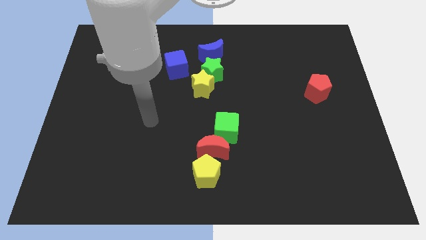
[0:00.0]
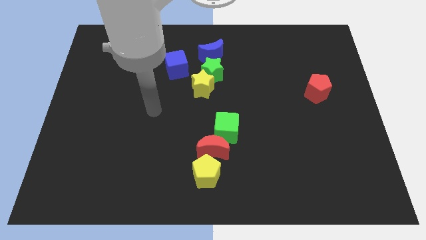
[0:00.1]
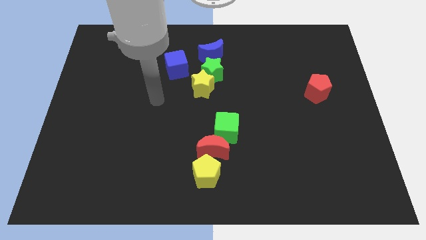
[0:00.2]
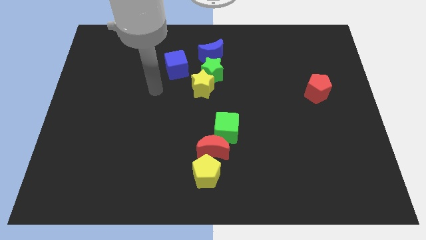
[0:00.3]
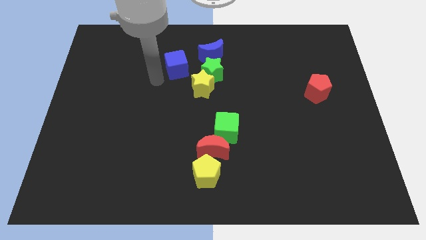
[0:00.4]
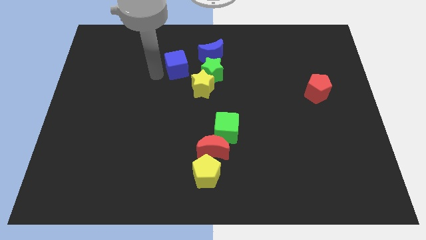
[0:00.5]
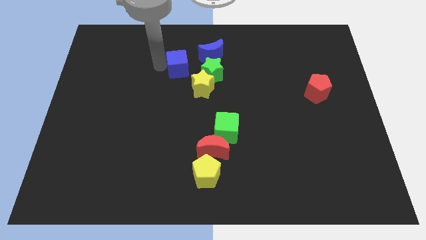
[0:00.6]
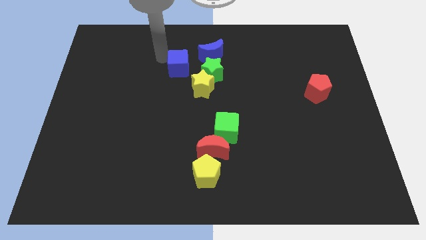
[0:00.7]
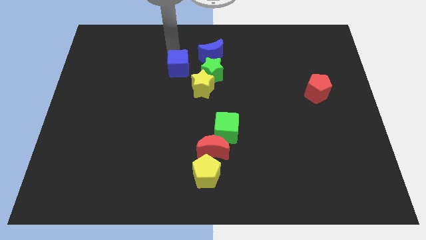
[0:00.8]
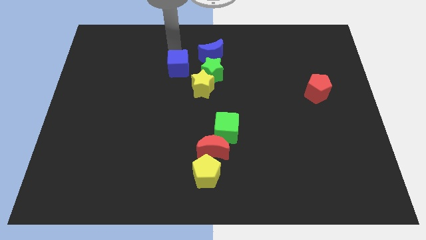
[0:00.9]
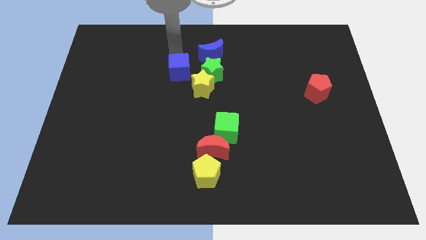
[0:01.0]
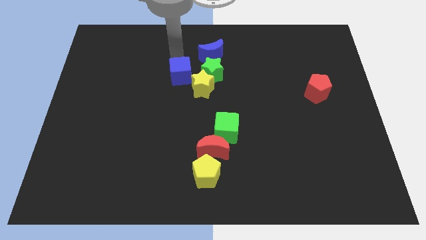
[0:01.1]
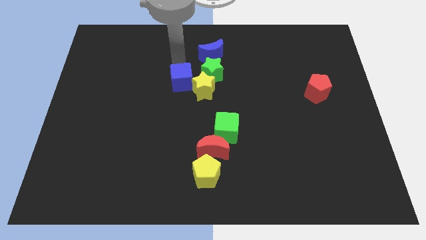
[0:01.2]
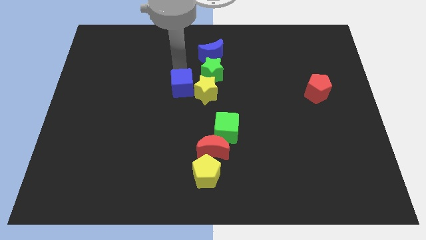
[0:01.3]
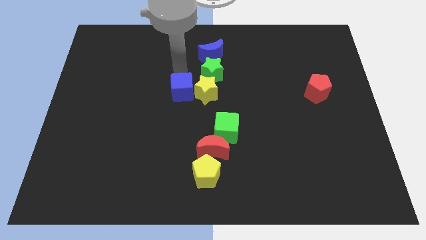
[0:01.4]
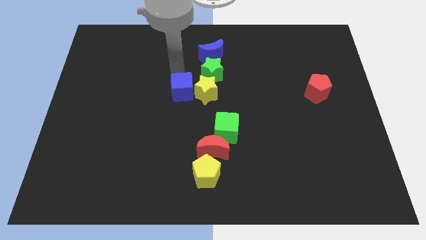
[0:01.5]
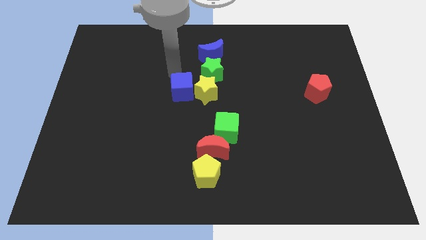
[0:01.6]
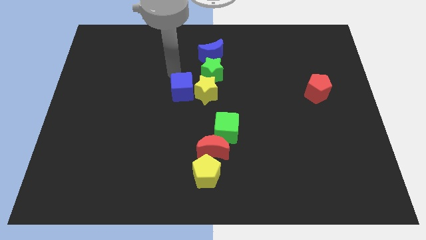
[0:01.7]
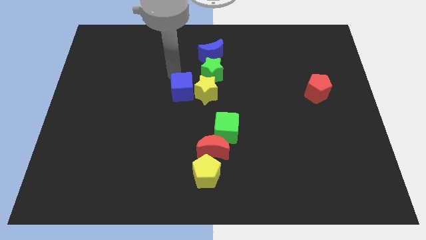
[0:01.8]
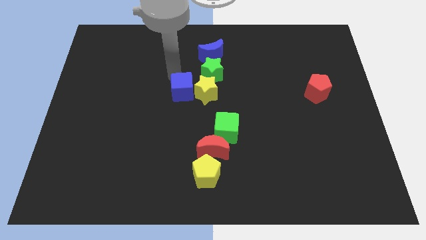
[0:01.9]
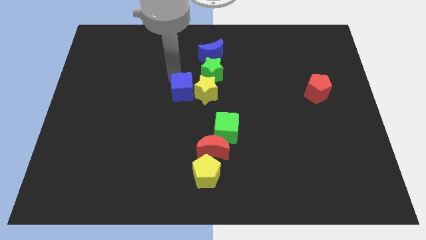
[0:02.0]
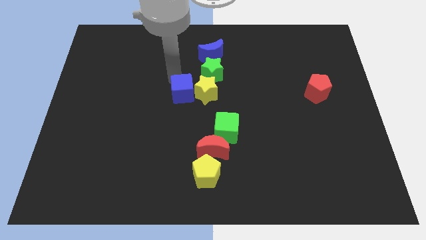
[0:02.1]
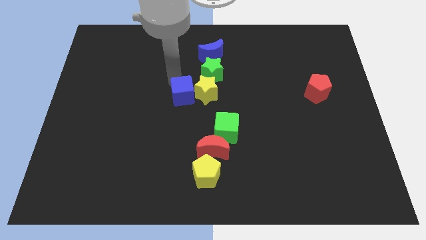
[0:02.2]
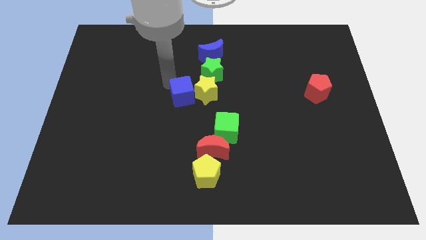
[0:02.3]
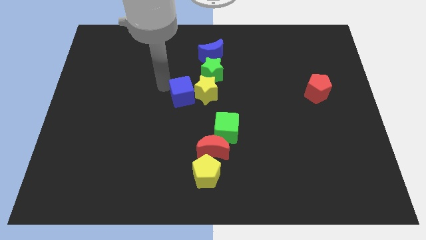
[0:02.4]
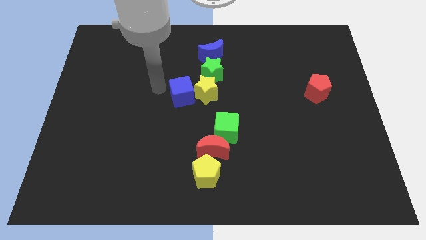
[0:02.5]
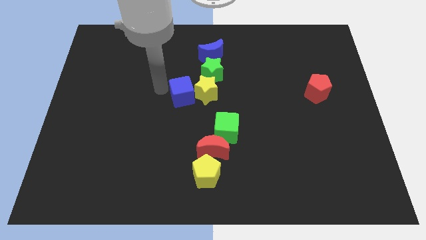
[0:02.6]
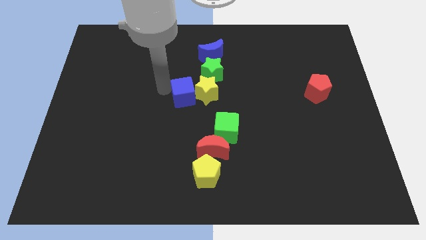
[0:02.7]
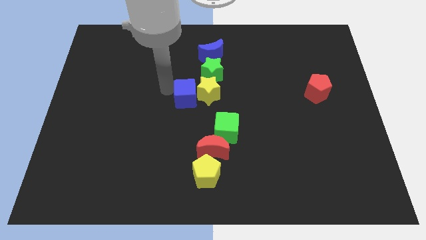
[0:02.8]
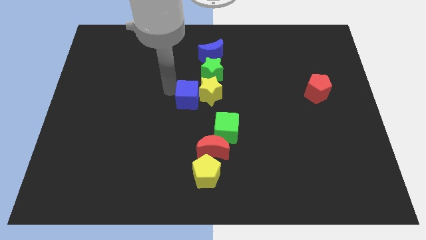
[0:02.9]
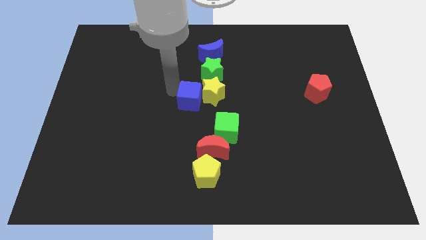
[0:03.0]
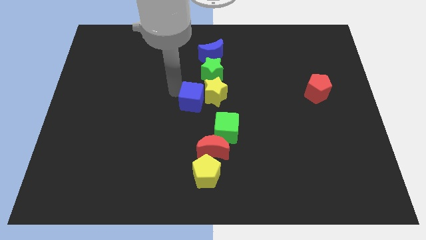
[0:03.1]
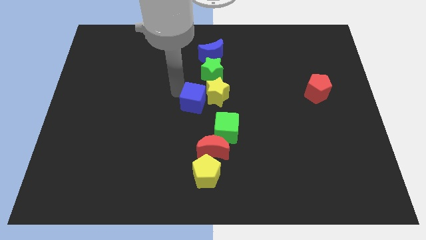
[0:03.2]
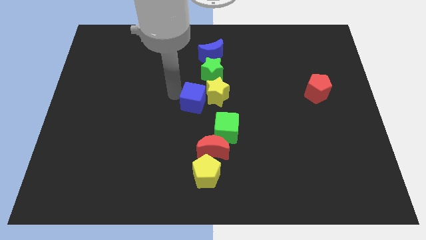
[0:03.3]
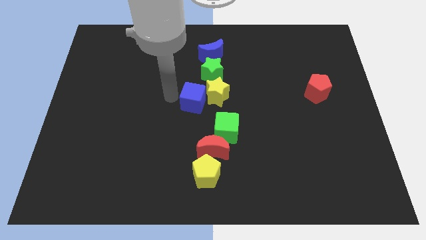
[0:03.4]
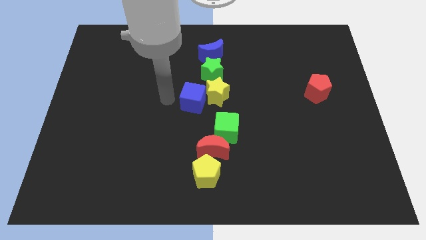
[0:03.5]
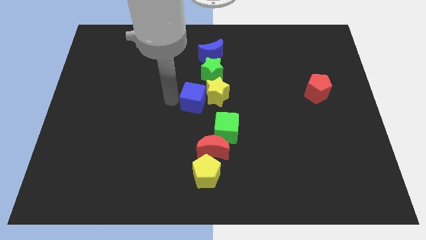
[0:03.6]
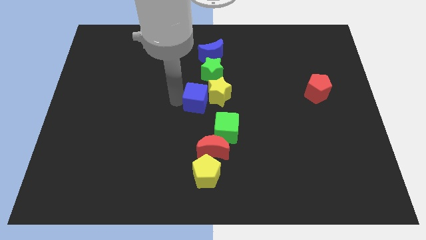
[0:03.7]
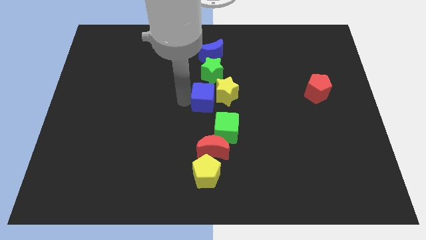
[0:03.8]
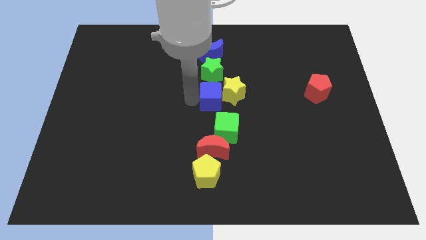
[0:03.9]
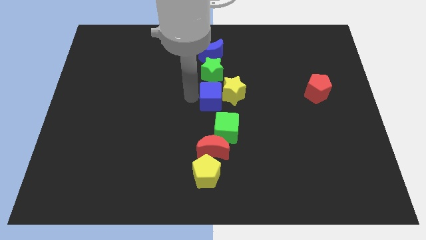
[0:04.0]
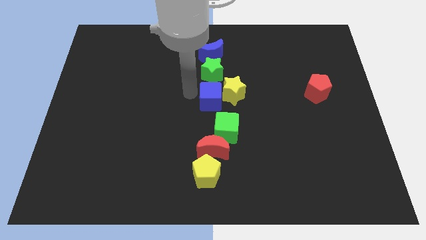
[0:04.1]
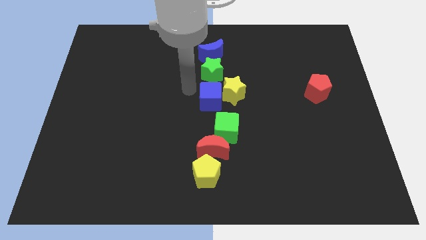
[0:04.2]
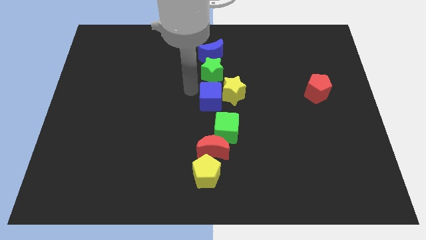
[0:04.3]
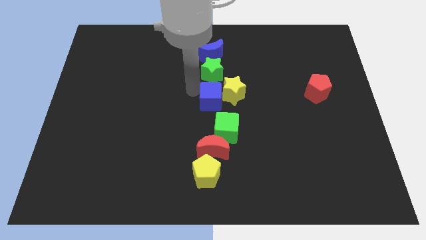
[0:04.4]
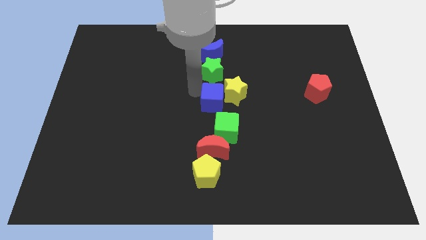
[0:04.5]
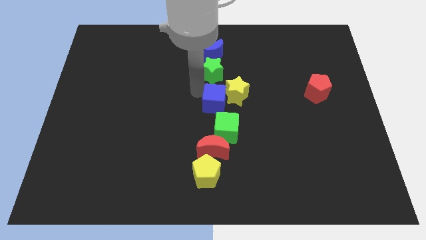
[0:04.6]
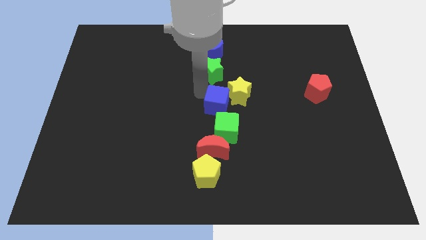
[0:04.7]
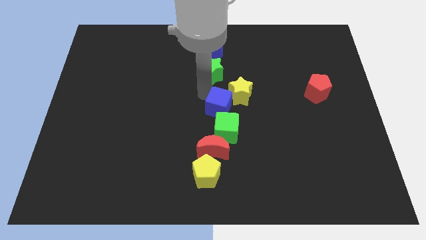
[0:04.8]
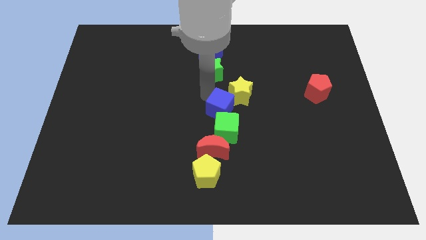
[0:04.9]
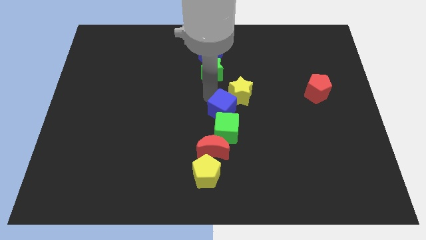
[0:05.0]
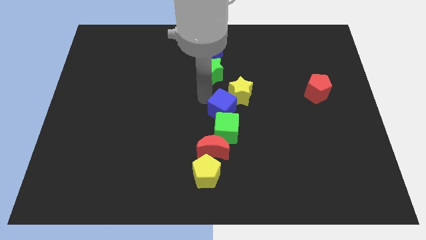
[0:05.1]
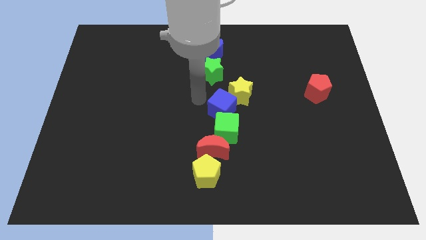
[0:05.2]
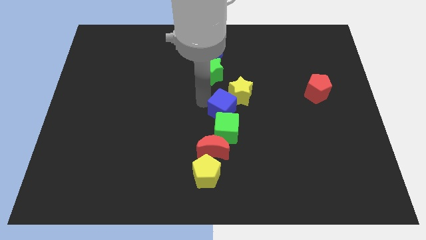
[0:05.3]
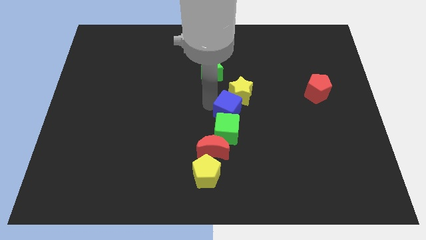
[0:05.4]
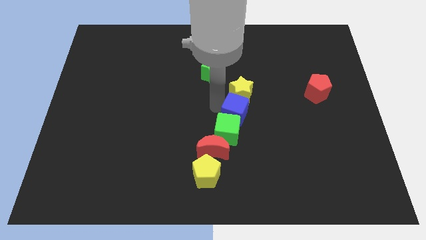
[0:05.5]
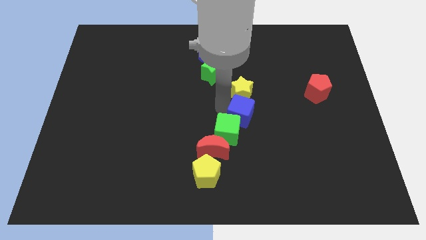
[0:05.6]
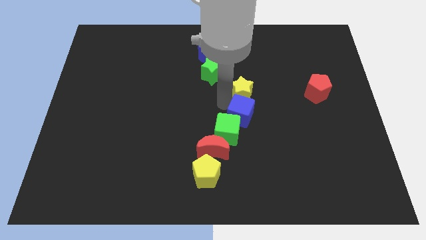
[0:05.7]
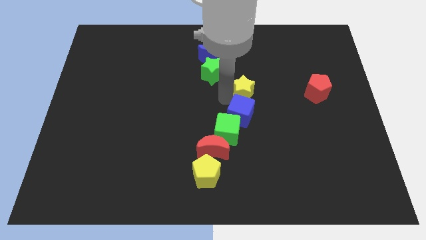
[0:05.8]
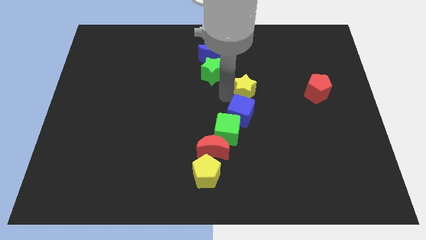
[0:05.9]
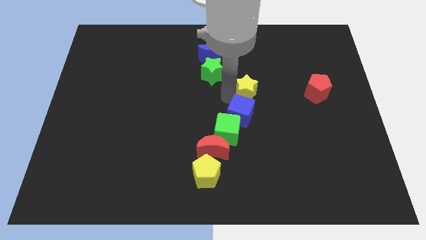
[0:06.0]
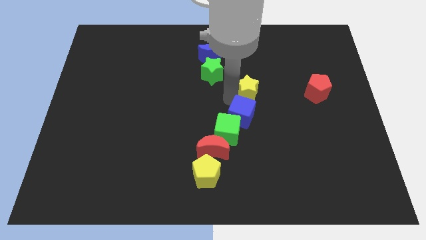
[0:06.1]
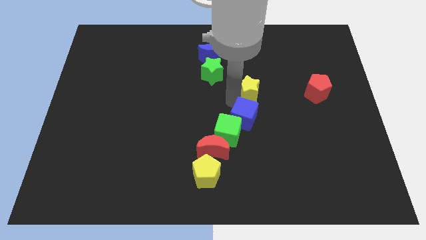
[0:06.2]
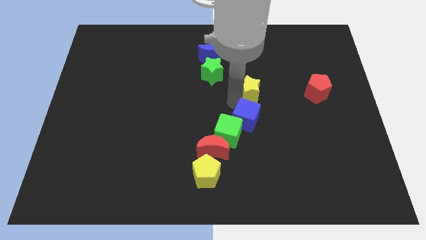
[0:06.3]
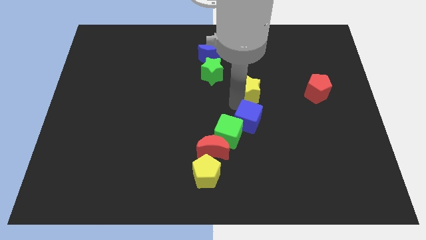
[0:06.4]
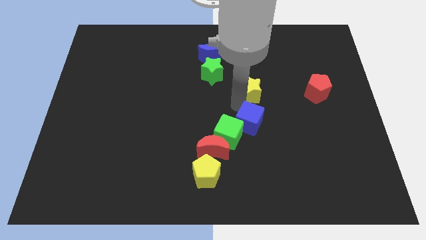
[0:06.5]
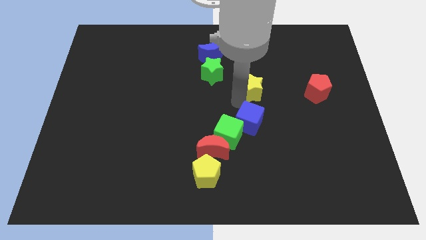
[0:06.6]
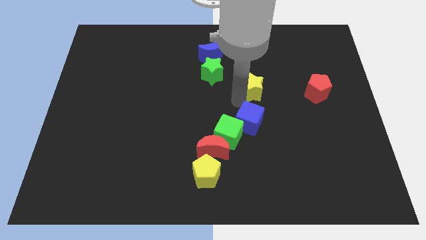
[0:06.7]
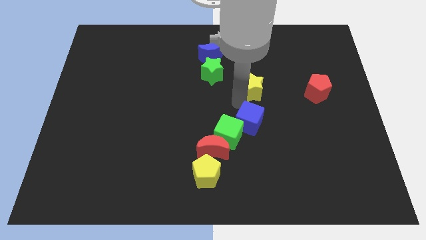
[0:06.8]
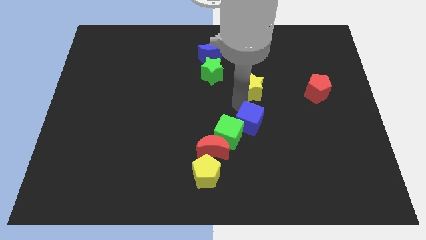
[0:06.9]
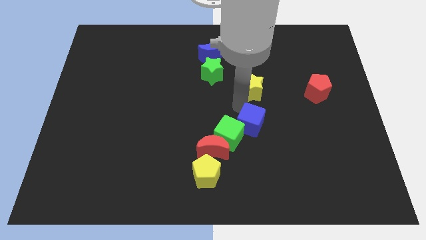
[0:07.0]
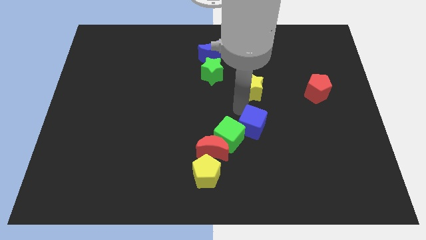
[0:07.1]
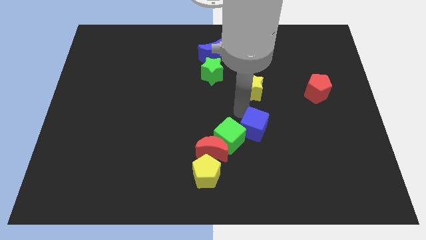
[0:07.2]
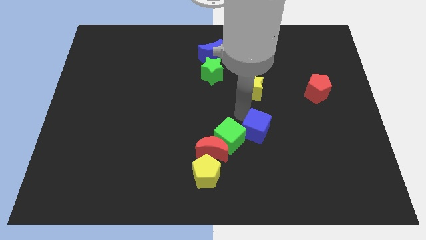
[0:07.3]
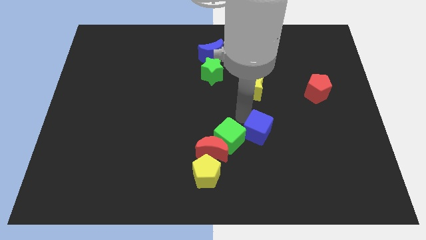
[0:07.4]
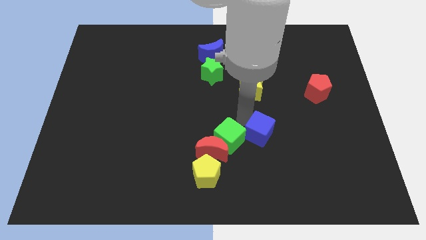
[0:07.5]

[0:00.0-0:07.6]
move the blue cube to the right side of the red moon

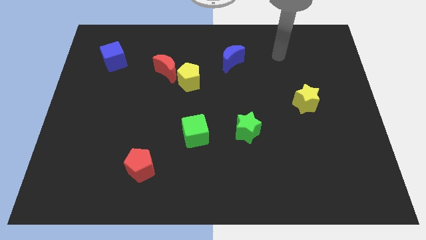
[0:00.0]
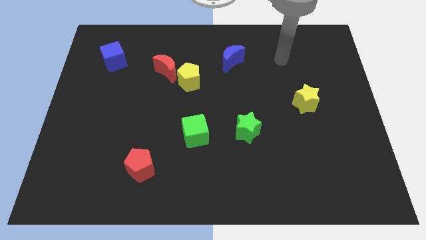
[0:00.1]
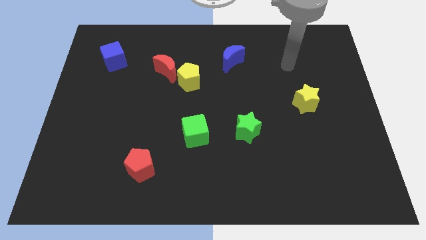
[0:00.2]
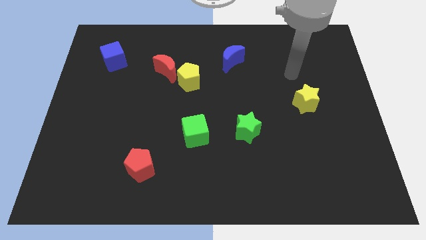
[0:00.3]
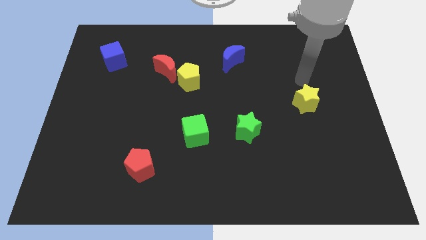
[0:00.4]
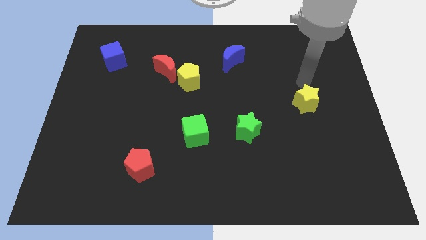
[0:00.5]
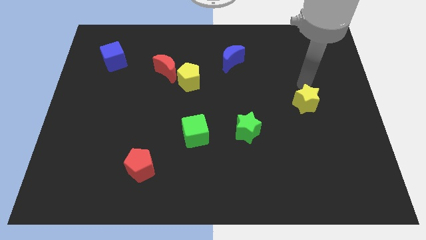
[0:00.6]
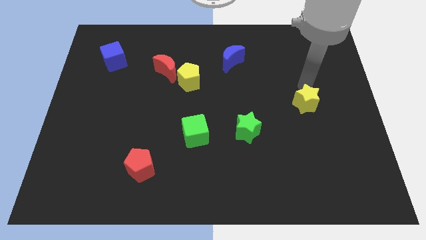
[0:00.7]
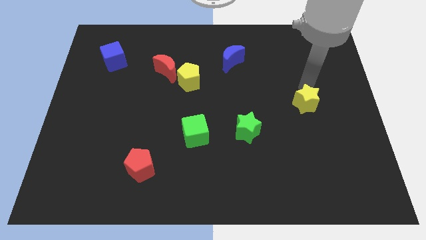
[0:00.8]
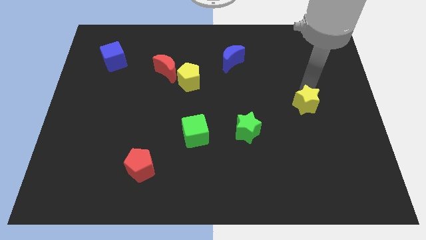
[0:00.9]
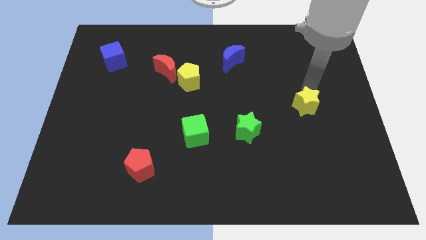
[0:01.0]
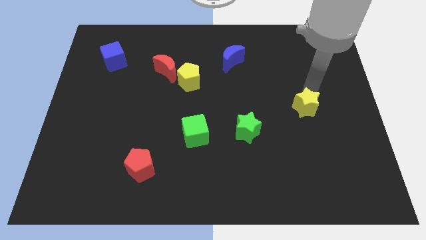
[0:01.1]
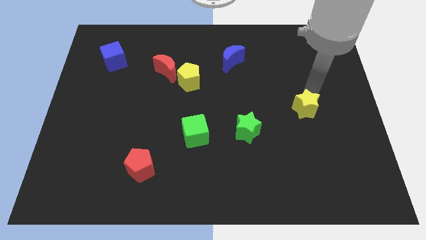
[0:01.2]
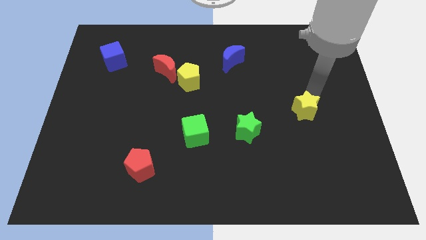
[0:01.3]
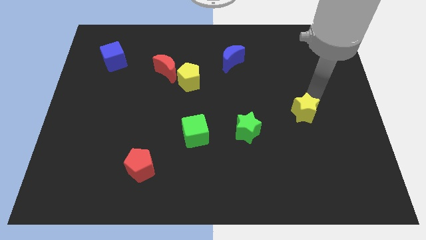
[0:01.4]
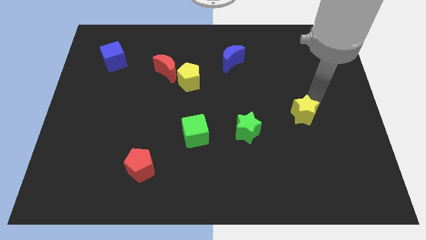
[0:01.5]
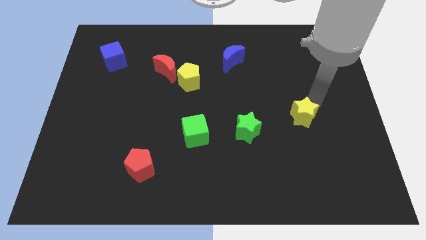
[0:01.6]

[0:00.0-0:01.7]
push the yellow star to the right of the green star
